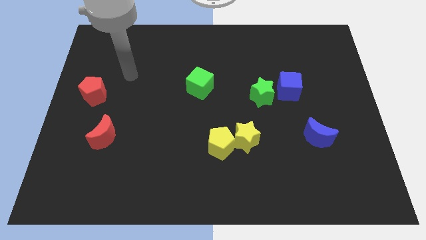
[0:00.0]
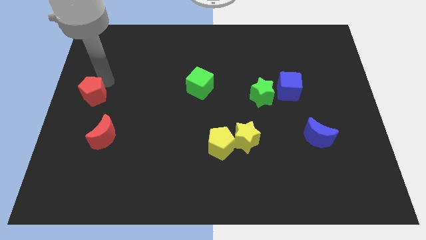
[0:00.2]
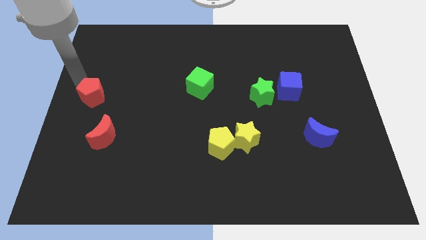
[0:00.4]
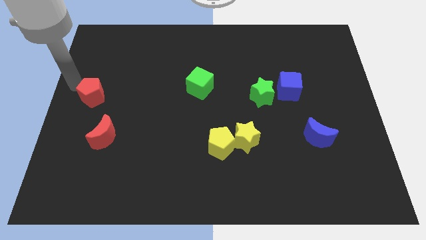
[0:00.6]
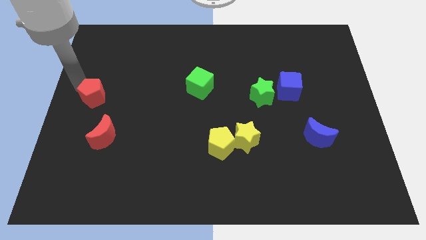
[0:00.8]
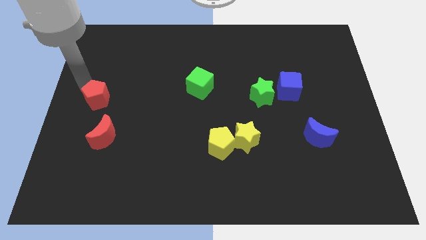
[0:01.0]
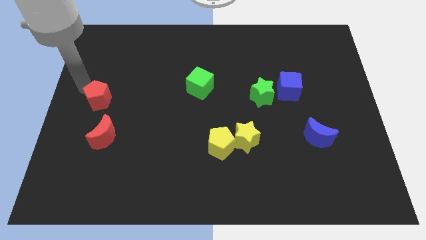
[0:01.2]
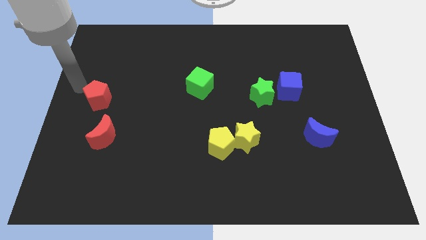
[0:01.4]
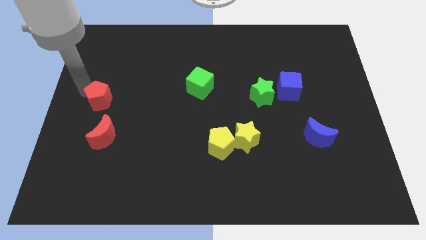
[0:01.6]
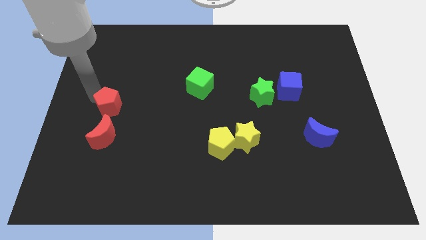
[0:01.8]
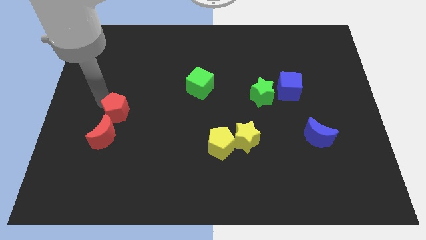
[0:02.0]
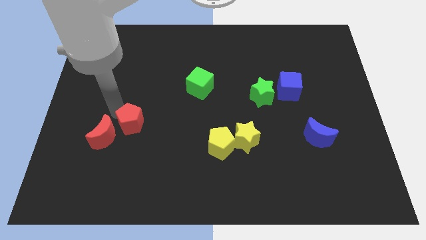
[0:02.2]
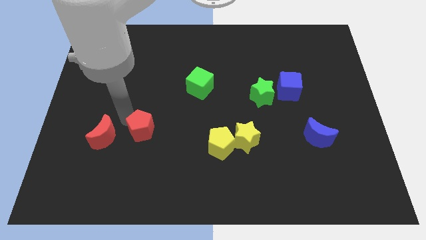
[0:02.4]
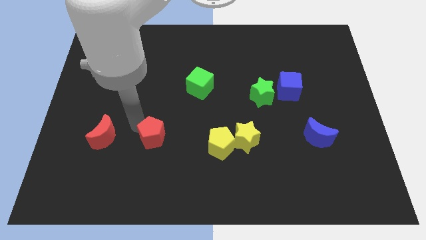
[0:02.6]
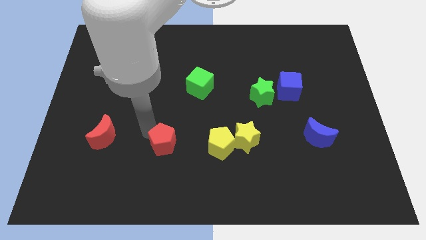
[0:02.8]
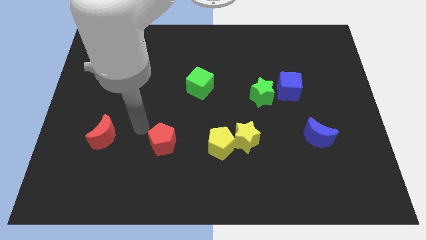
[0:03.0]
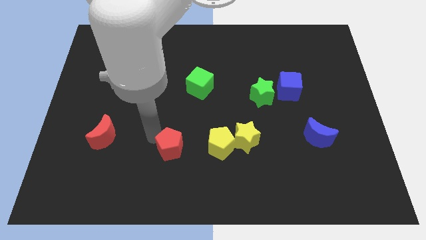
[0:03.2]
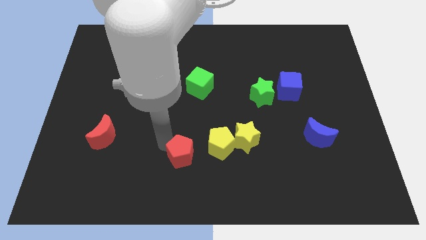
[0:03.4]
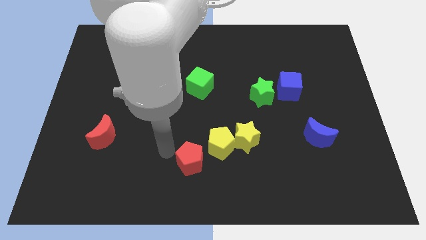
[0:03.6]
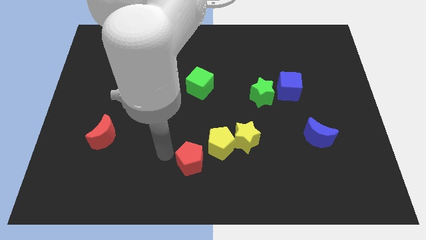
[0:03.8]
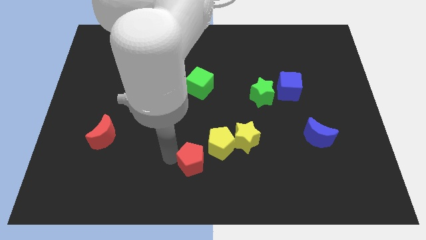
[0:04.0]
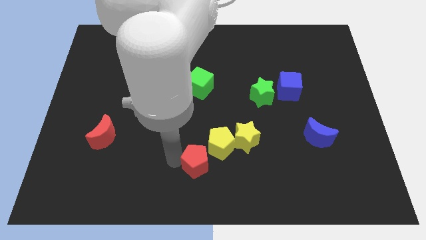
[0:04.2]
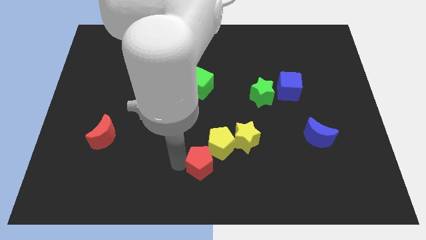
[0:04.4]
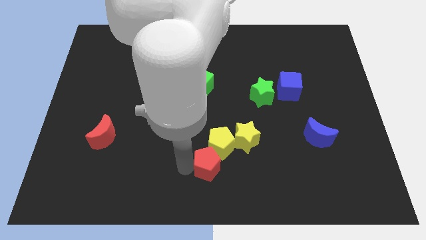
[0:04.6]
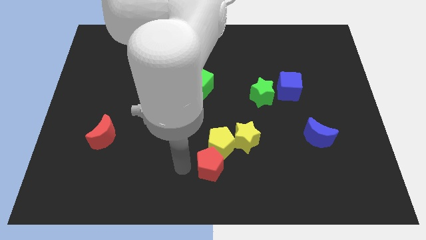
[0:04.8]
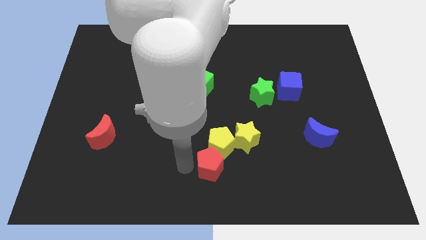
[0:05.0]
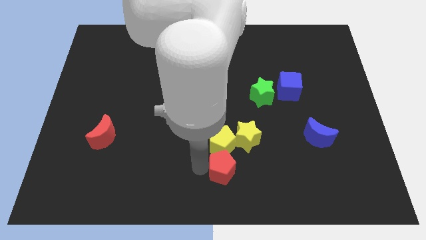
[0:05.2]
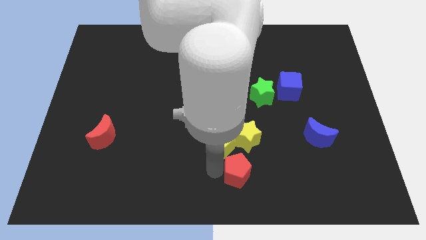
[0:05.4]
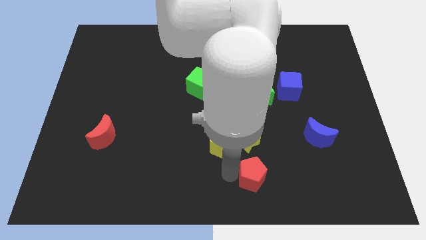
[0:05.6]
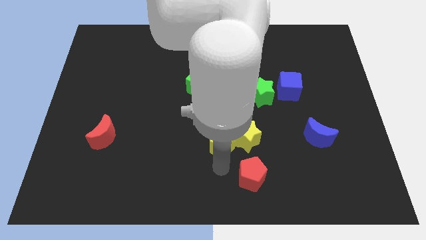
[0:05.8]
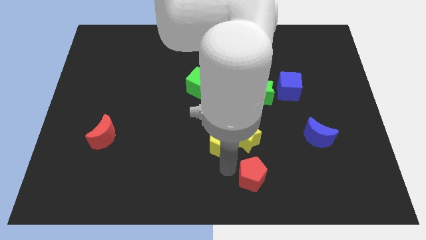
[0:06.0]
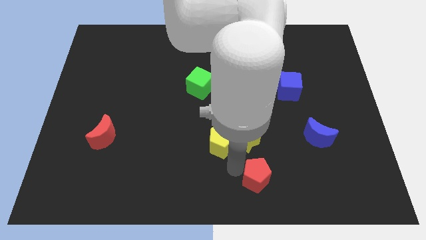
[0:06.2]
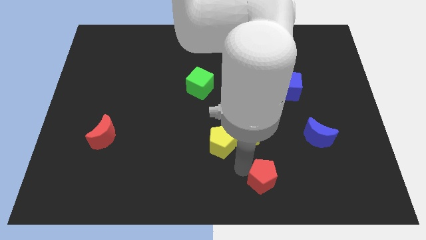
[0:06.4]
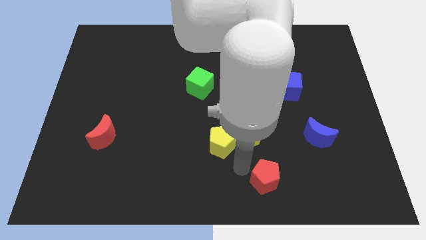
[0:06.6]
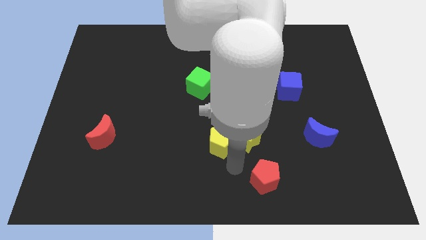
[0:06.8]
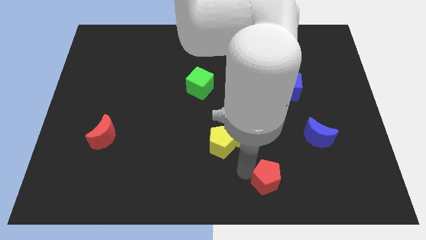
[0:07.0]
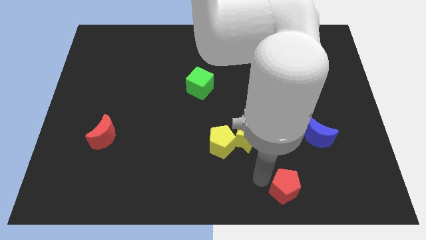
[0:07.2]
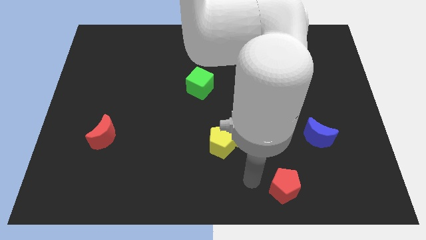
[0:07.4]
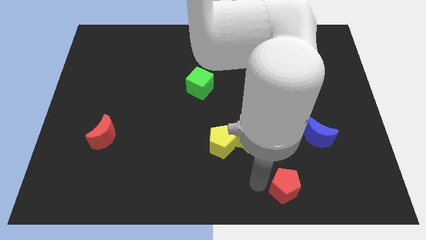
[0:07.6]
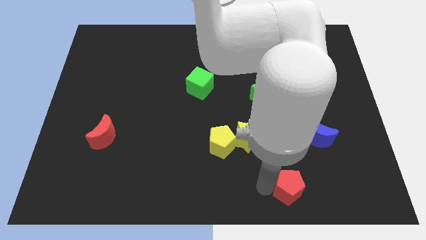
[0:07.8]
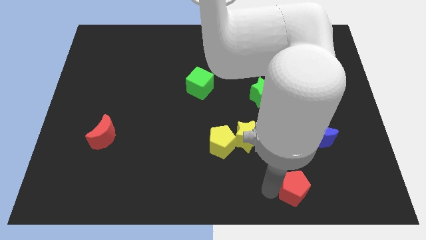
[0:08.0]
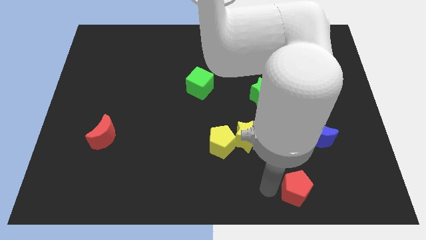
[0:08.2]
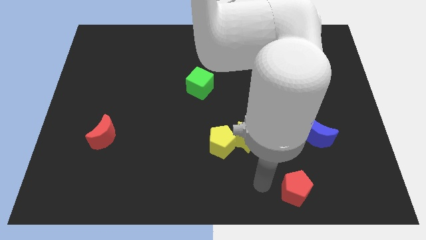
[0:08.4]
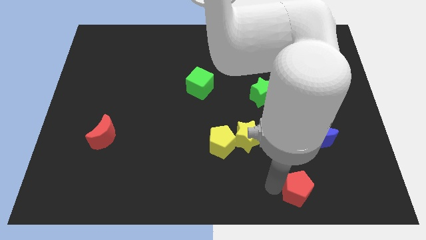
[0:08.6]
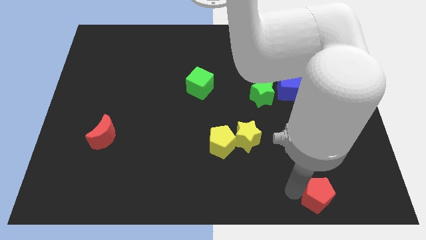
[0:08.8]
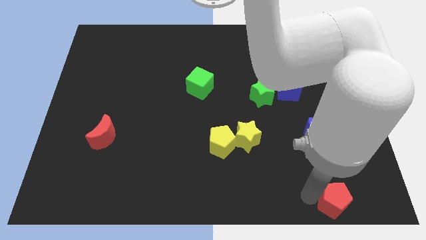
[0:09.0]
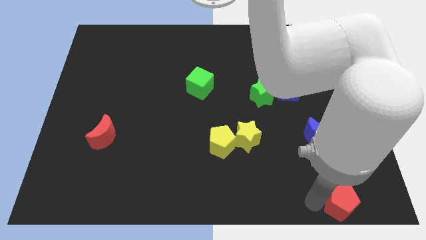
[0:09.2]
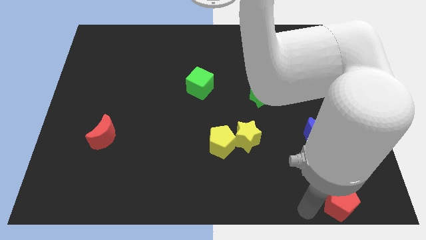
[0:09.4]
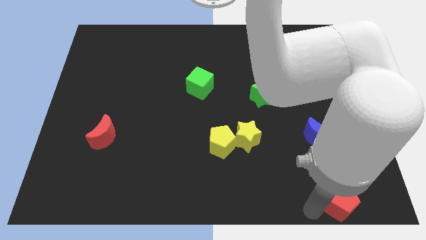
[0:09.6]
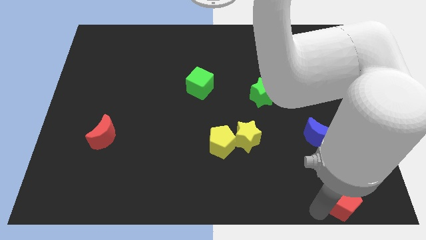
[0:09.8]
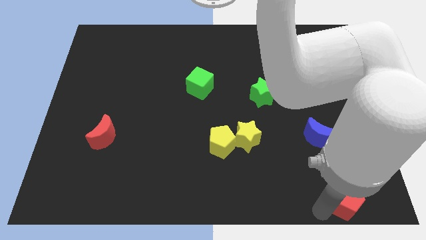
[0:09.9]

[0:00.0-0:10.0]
put the red pentagon to the bottom right

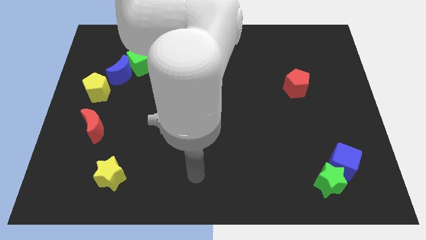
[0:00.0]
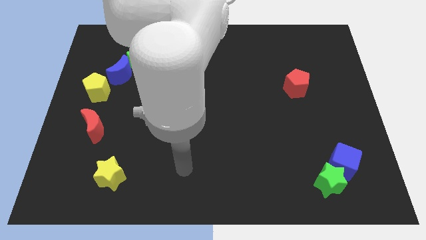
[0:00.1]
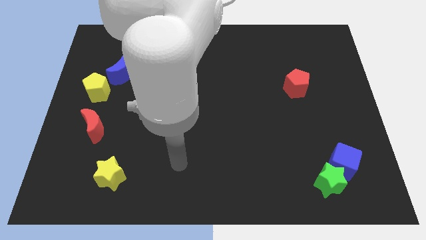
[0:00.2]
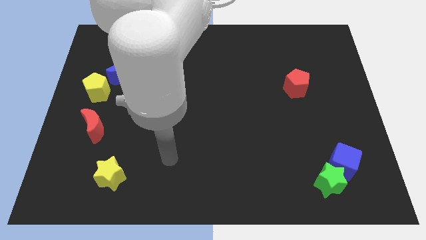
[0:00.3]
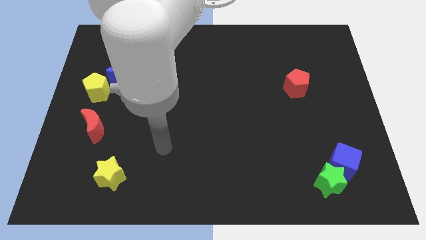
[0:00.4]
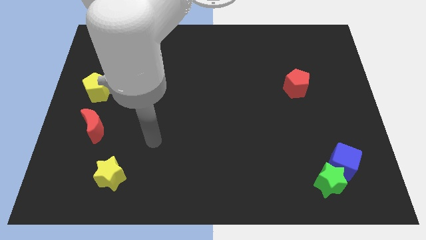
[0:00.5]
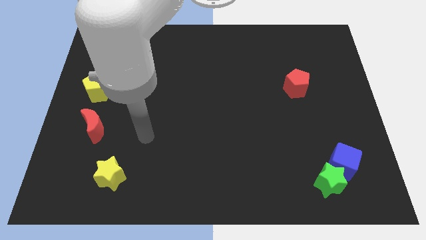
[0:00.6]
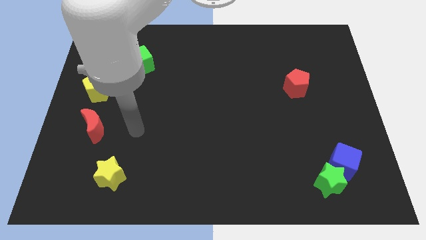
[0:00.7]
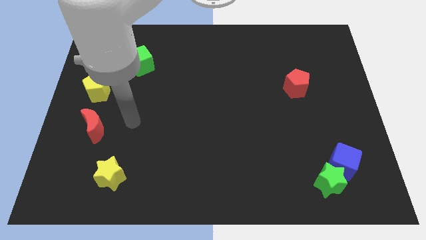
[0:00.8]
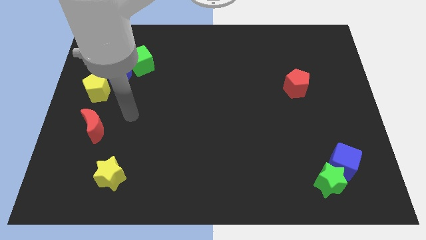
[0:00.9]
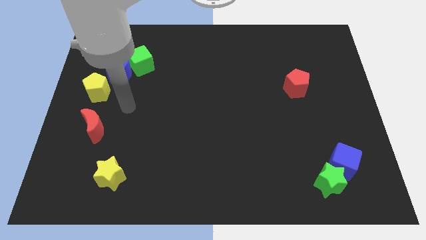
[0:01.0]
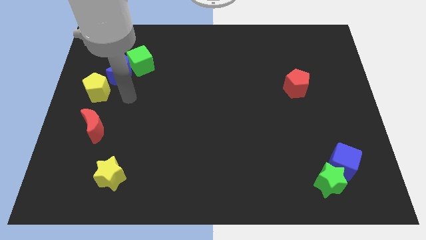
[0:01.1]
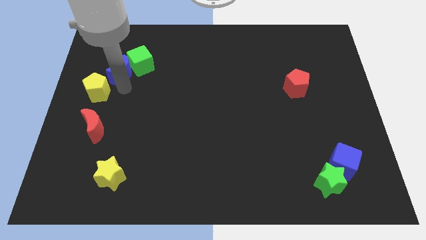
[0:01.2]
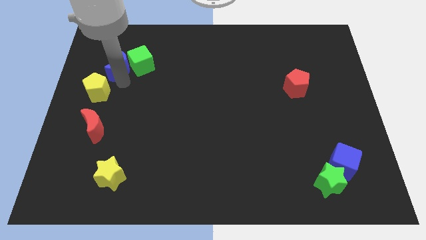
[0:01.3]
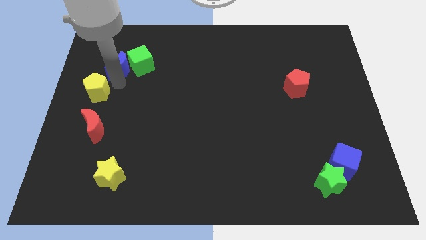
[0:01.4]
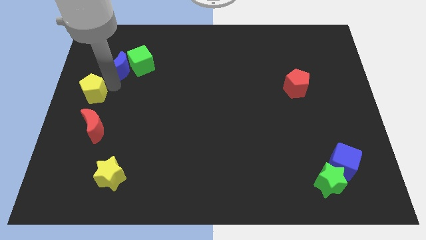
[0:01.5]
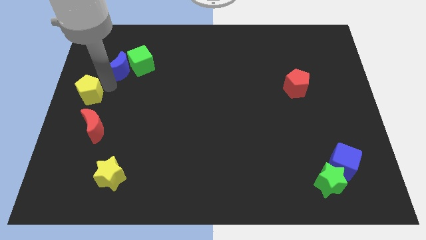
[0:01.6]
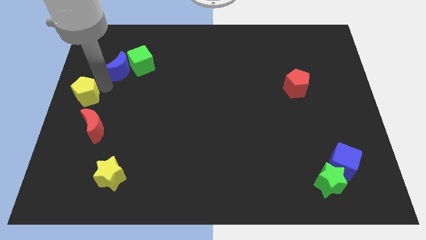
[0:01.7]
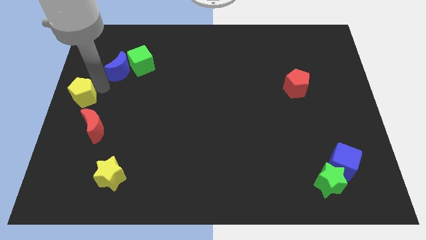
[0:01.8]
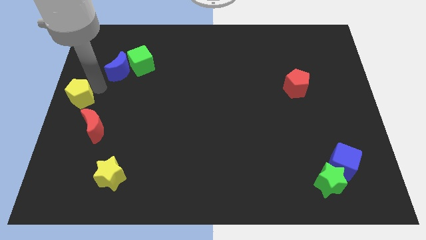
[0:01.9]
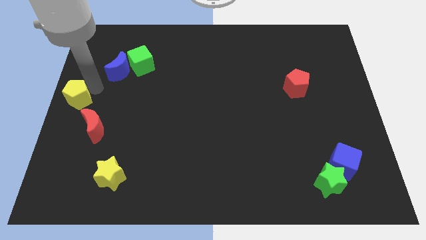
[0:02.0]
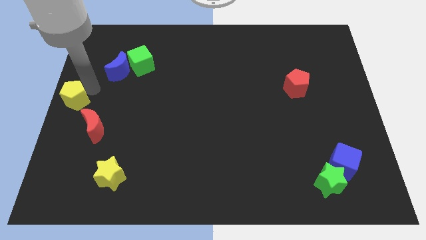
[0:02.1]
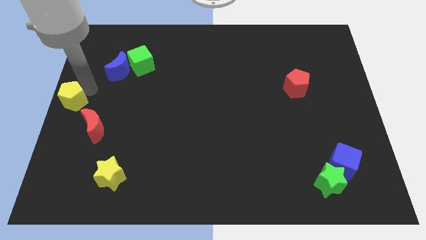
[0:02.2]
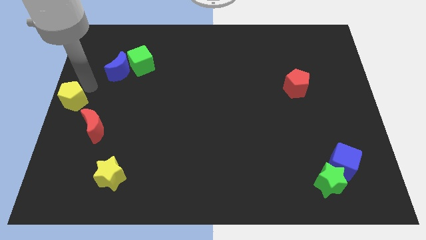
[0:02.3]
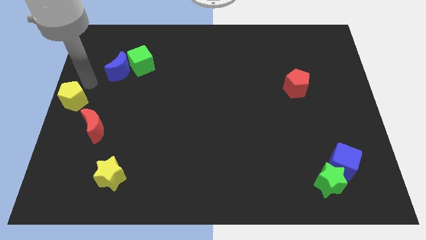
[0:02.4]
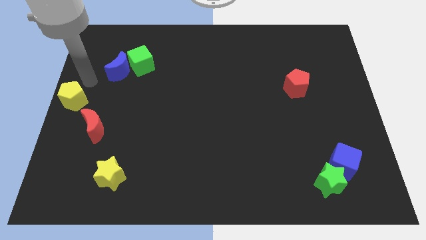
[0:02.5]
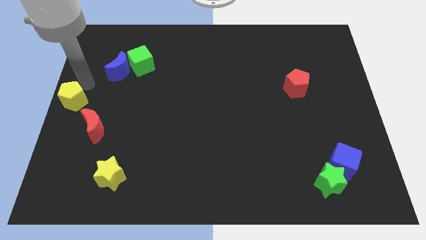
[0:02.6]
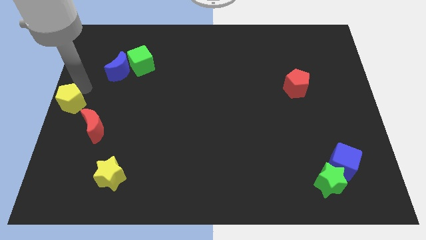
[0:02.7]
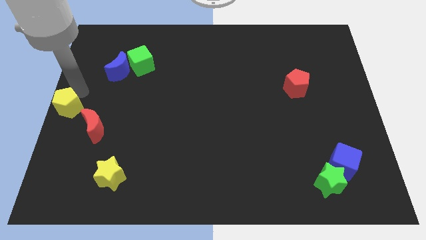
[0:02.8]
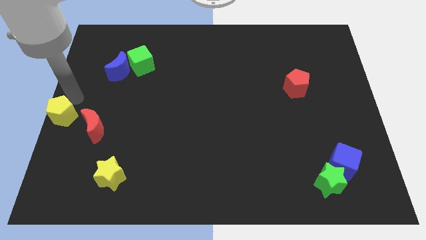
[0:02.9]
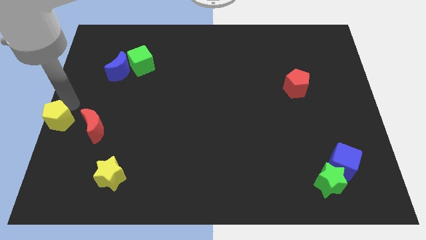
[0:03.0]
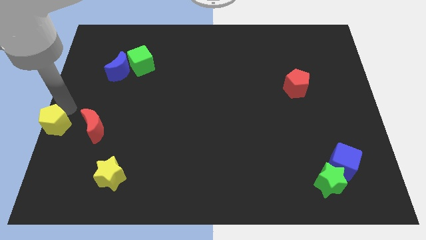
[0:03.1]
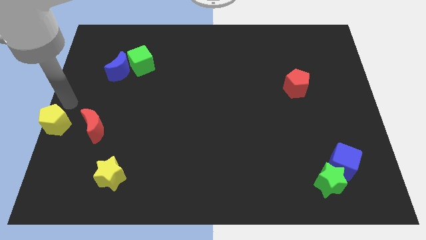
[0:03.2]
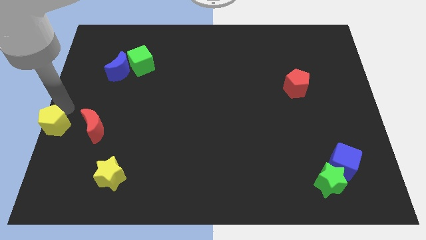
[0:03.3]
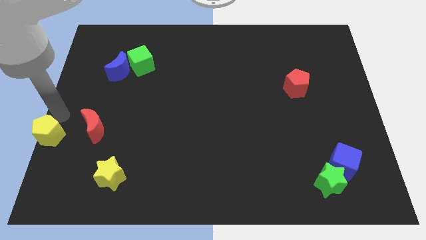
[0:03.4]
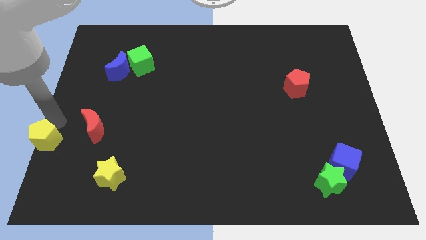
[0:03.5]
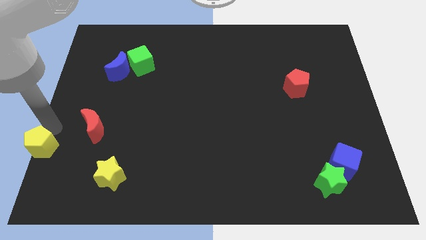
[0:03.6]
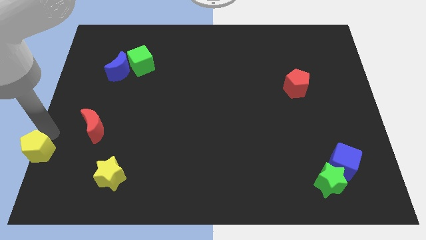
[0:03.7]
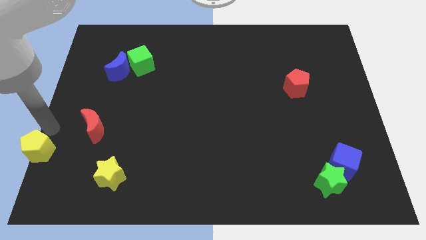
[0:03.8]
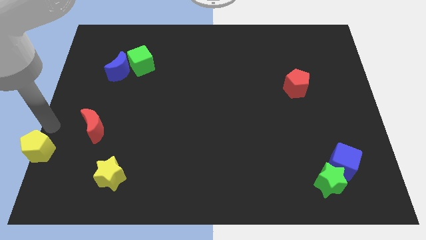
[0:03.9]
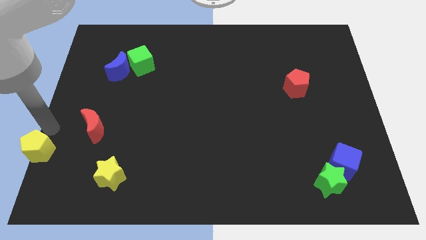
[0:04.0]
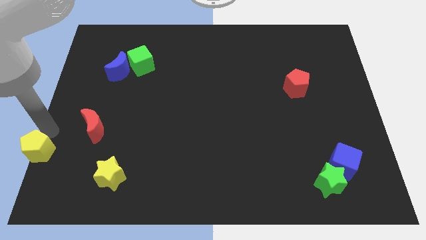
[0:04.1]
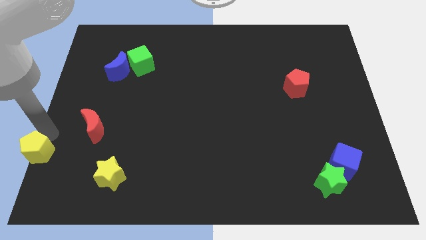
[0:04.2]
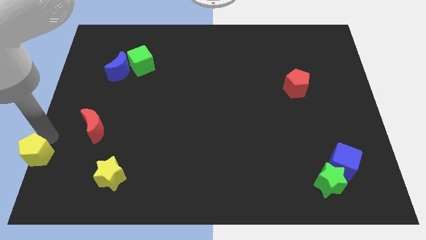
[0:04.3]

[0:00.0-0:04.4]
slide the yellow pentagon to the bottom left of the board
